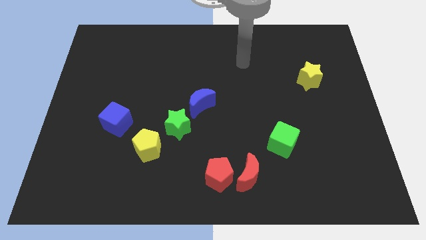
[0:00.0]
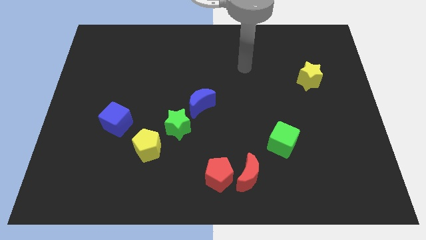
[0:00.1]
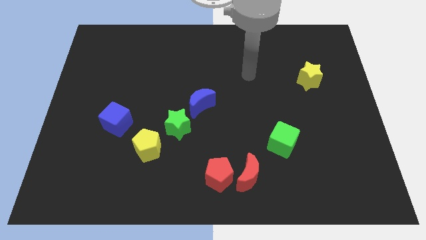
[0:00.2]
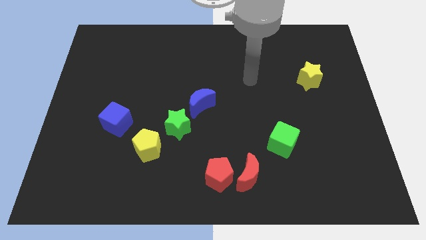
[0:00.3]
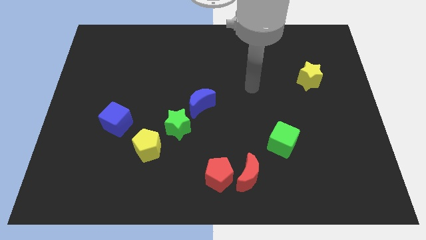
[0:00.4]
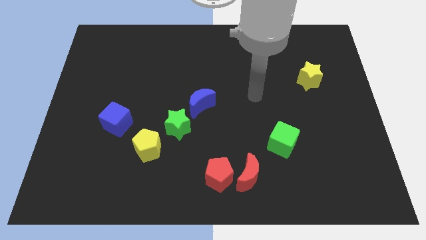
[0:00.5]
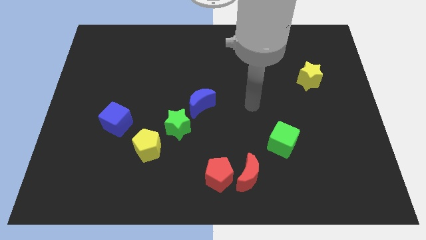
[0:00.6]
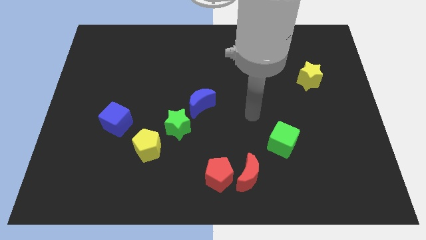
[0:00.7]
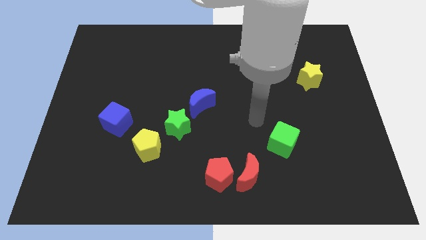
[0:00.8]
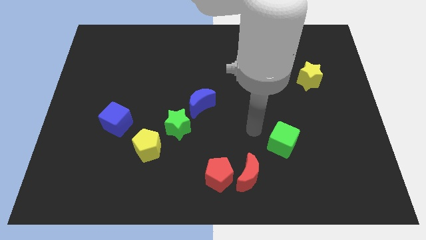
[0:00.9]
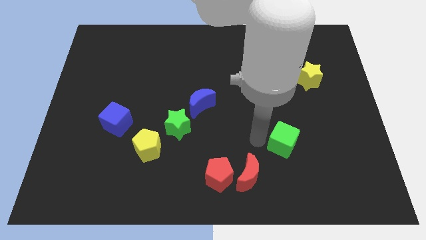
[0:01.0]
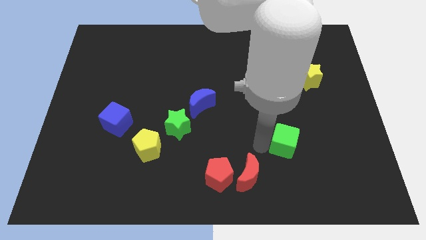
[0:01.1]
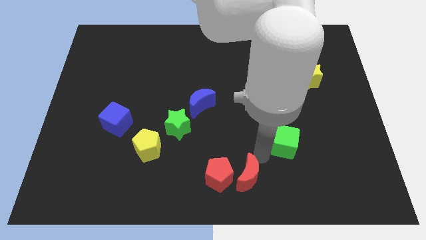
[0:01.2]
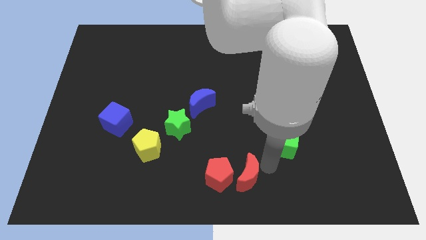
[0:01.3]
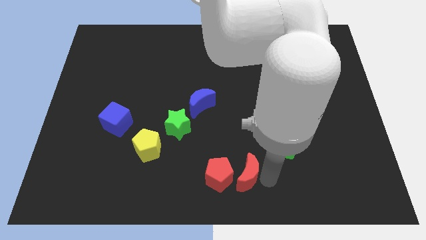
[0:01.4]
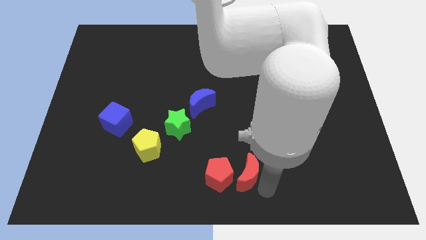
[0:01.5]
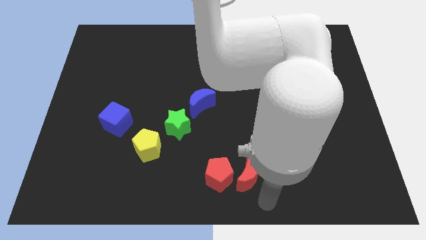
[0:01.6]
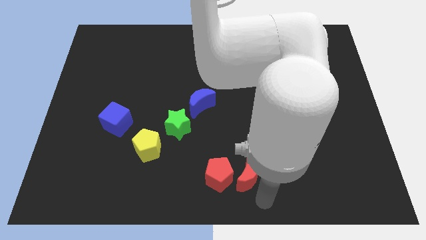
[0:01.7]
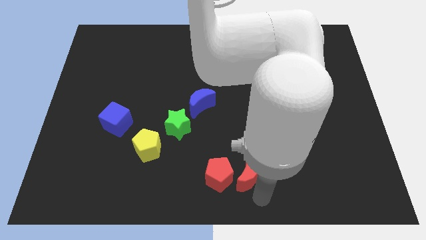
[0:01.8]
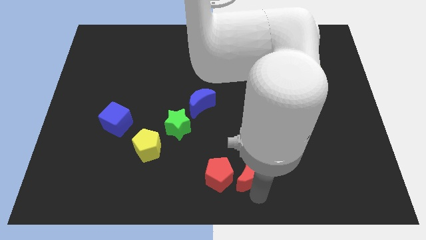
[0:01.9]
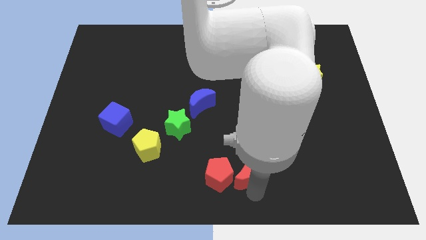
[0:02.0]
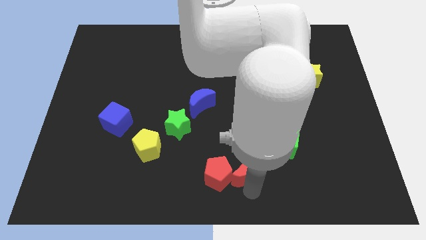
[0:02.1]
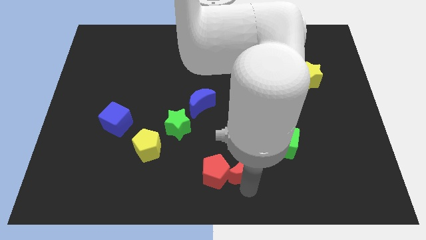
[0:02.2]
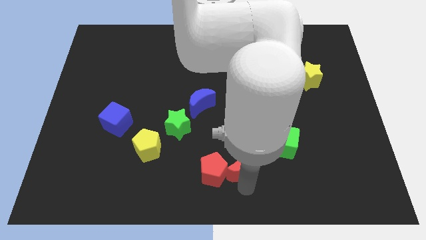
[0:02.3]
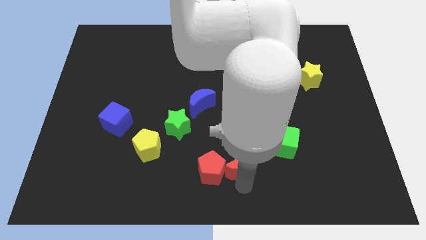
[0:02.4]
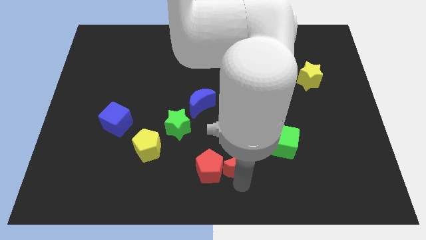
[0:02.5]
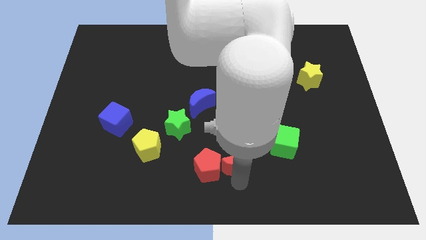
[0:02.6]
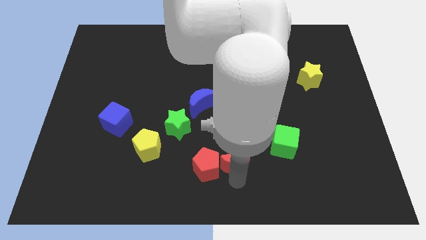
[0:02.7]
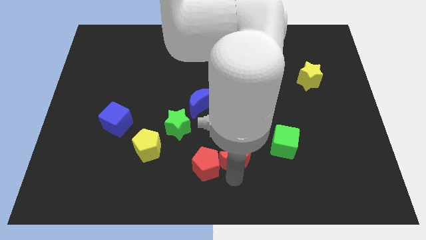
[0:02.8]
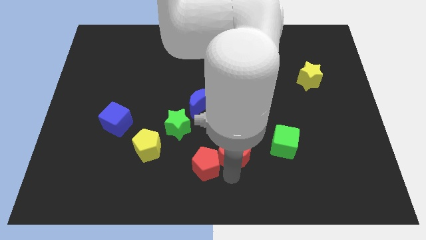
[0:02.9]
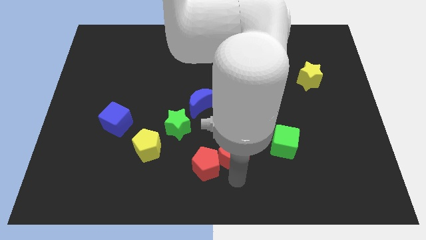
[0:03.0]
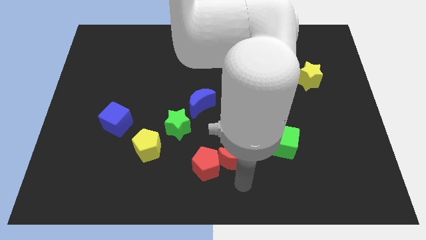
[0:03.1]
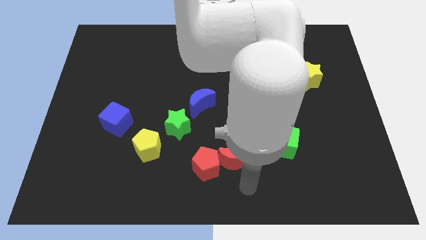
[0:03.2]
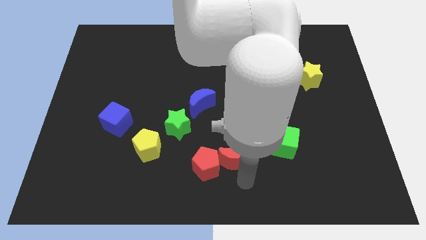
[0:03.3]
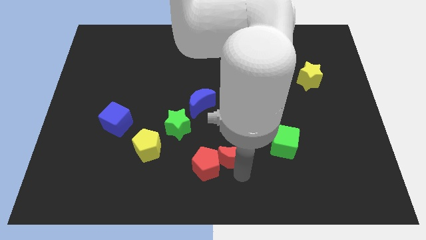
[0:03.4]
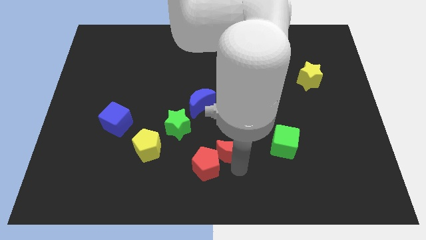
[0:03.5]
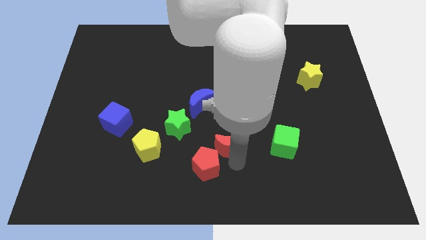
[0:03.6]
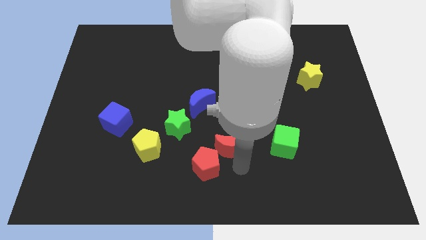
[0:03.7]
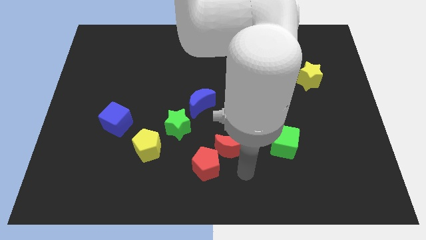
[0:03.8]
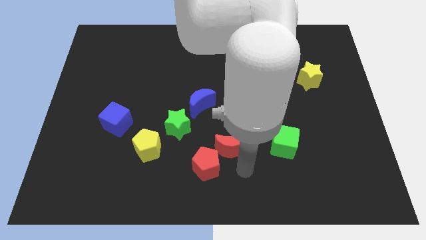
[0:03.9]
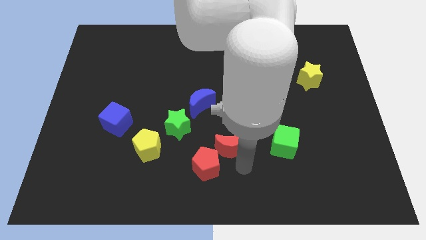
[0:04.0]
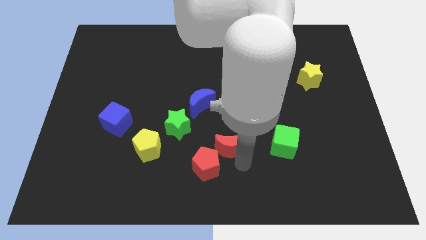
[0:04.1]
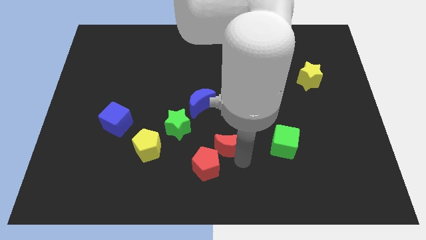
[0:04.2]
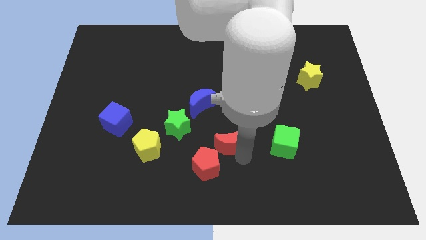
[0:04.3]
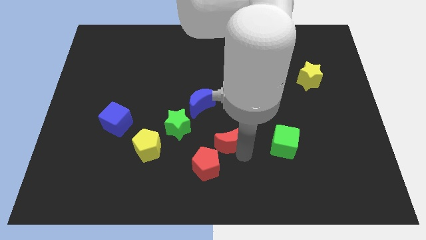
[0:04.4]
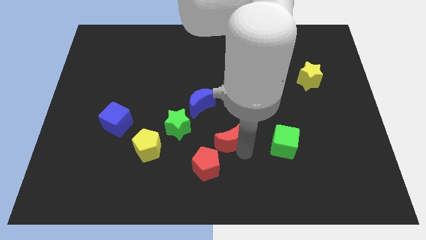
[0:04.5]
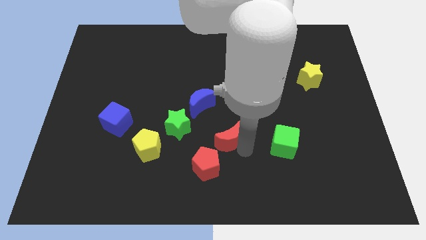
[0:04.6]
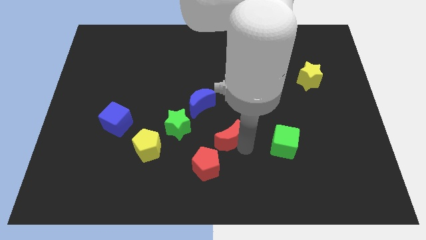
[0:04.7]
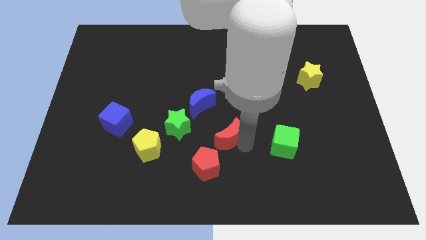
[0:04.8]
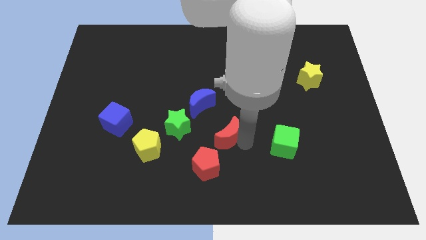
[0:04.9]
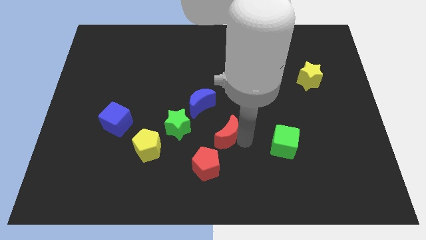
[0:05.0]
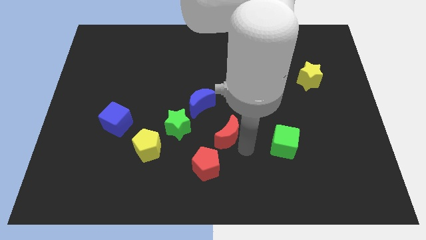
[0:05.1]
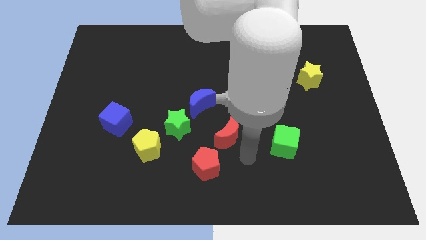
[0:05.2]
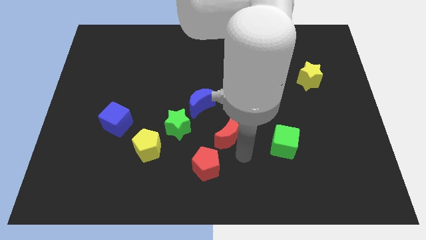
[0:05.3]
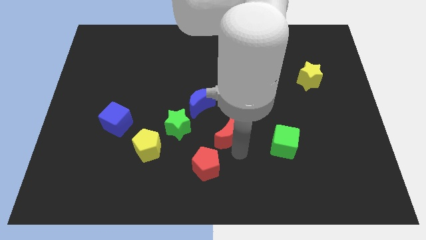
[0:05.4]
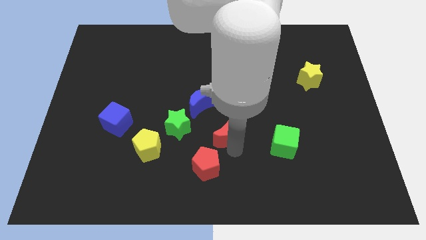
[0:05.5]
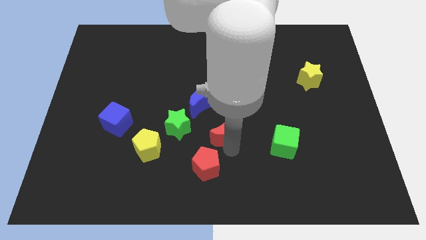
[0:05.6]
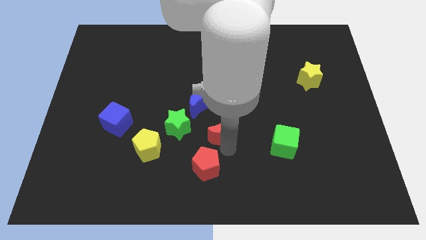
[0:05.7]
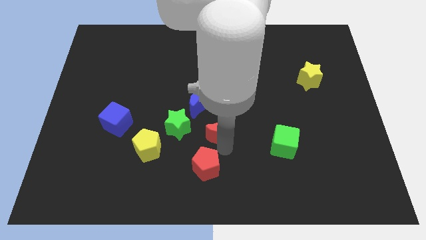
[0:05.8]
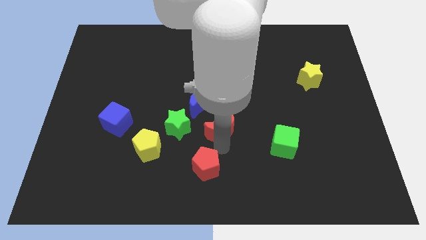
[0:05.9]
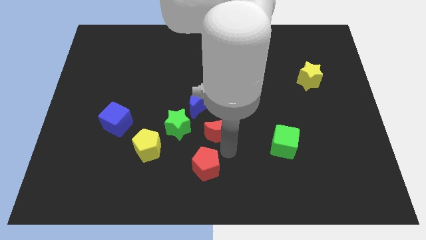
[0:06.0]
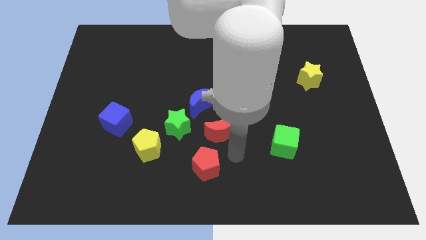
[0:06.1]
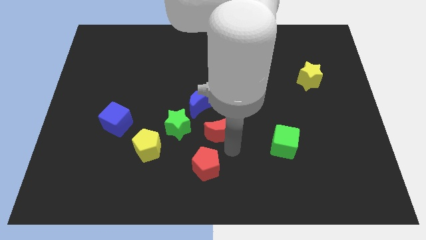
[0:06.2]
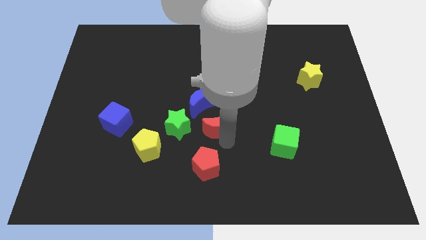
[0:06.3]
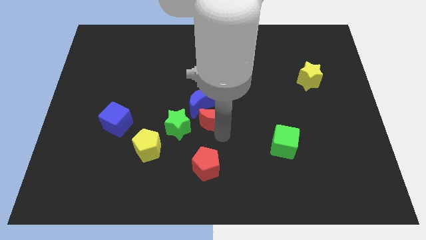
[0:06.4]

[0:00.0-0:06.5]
put the red moon to the blue moon
